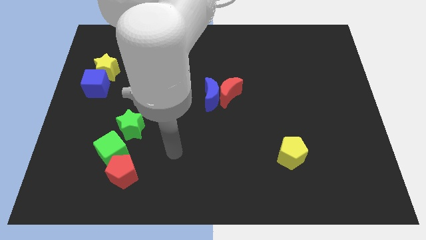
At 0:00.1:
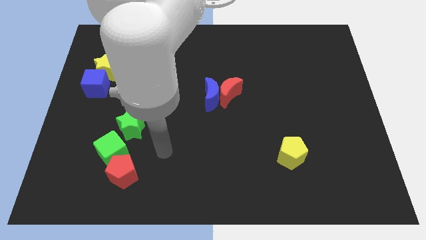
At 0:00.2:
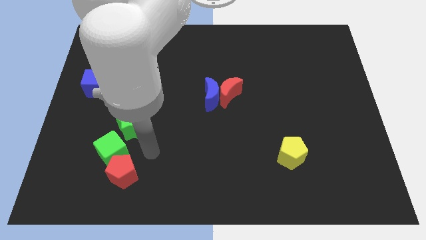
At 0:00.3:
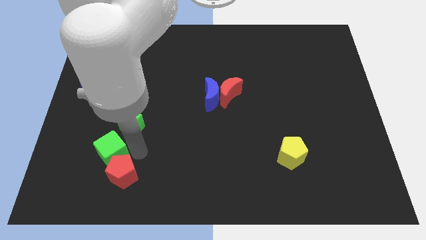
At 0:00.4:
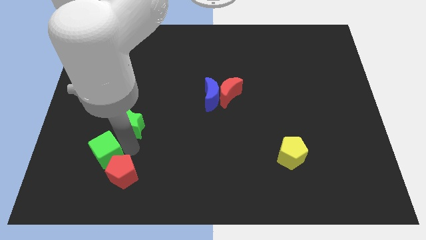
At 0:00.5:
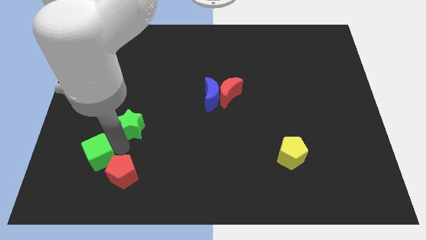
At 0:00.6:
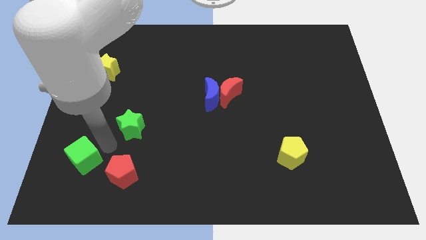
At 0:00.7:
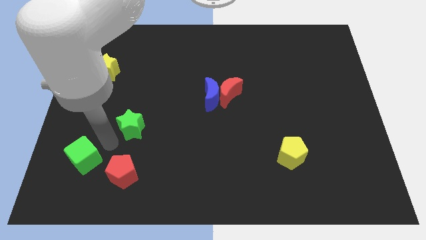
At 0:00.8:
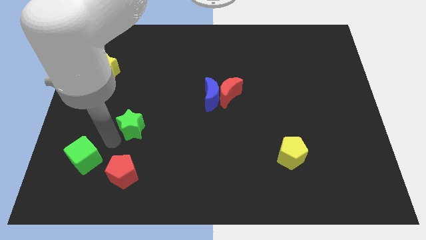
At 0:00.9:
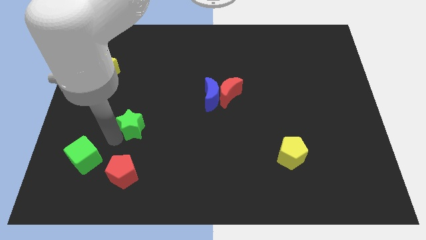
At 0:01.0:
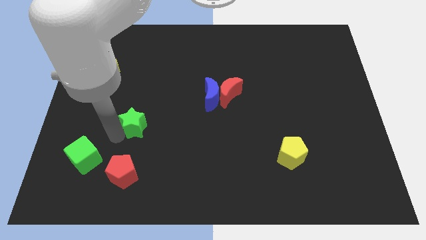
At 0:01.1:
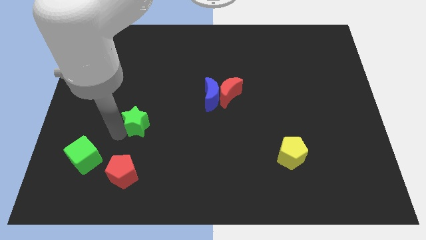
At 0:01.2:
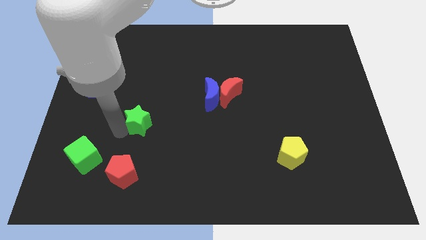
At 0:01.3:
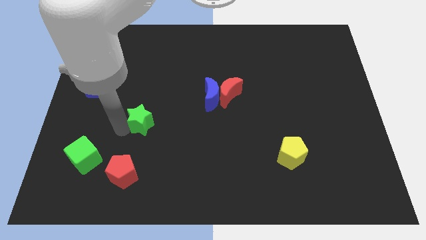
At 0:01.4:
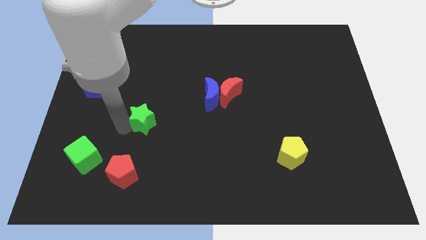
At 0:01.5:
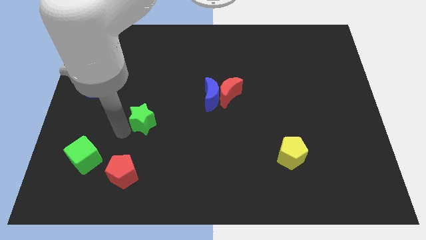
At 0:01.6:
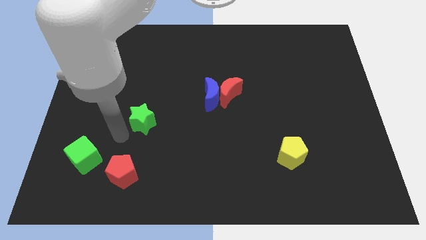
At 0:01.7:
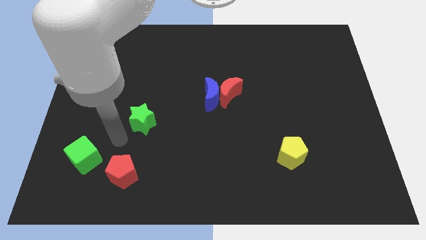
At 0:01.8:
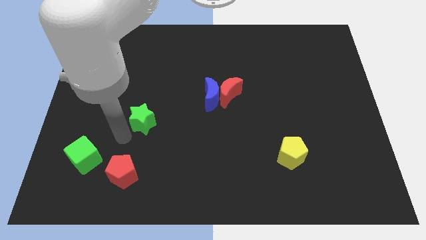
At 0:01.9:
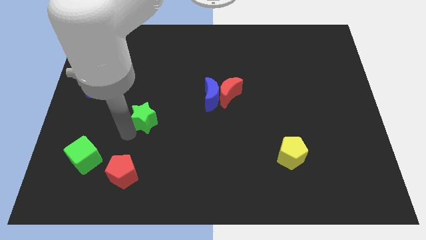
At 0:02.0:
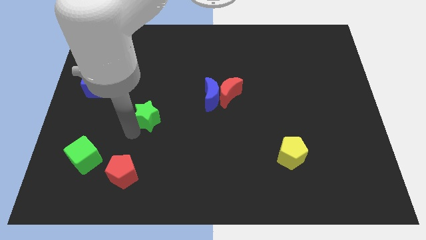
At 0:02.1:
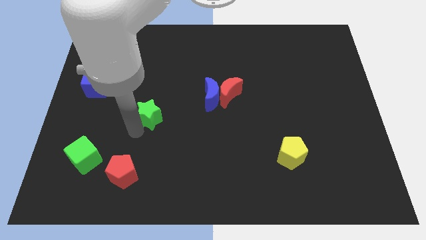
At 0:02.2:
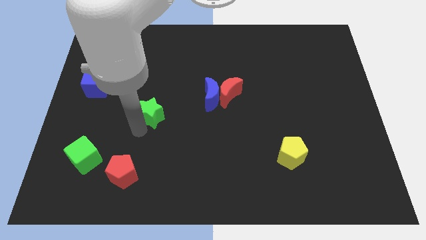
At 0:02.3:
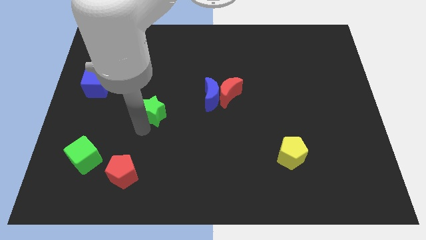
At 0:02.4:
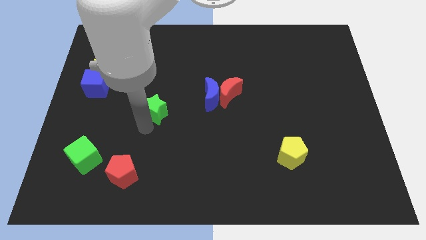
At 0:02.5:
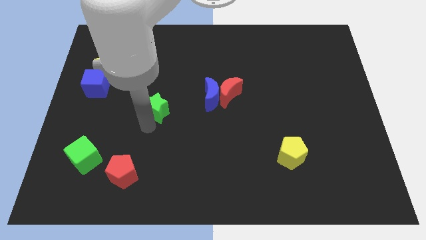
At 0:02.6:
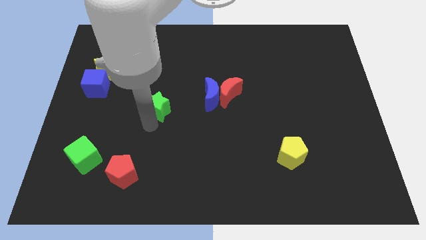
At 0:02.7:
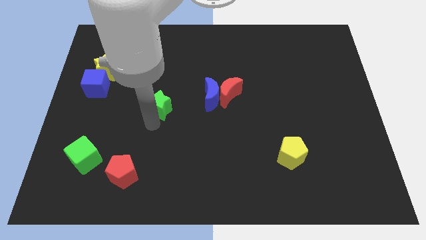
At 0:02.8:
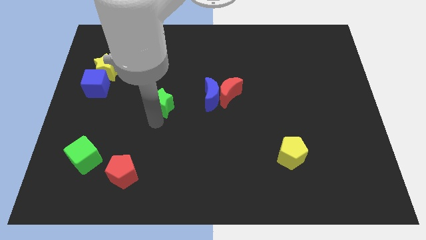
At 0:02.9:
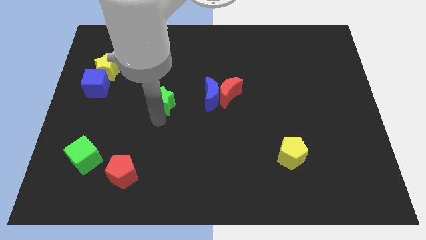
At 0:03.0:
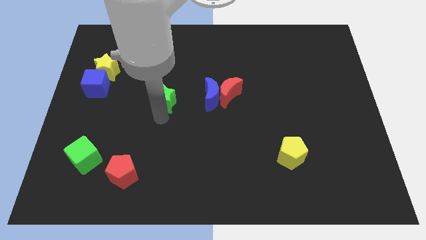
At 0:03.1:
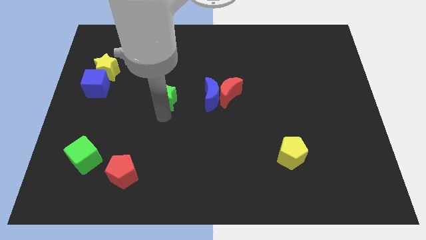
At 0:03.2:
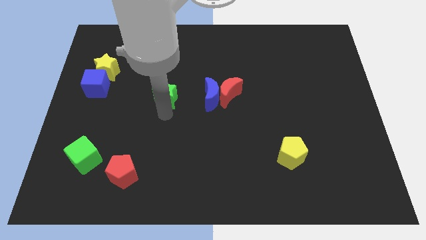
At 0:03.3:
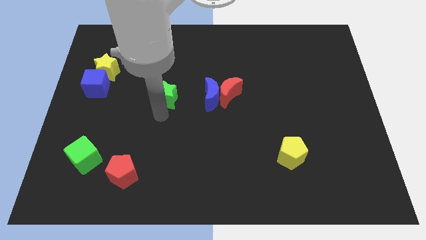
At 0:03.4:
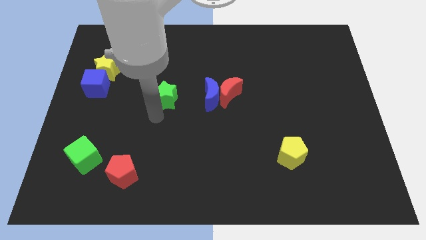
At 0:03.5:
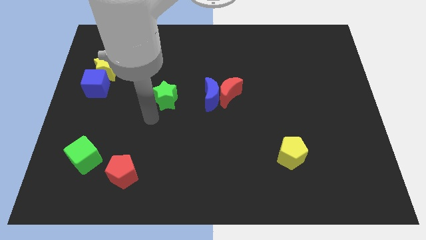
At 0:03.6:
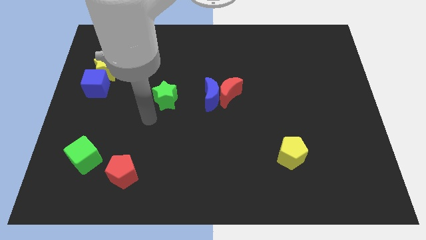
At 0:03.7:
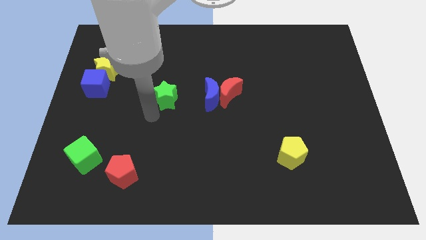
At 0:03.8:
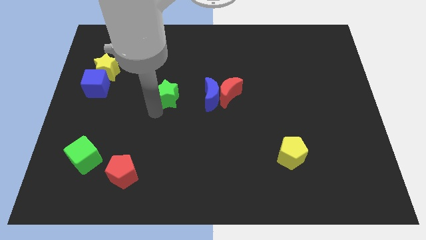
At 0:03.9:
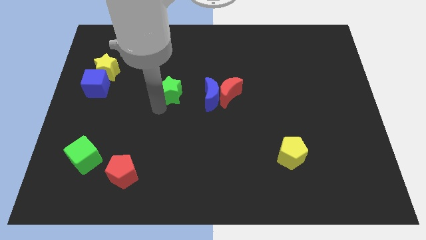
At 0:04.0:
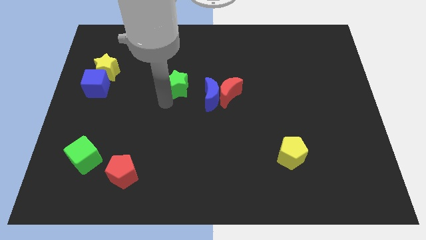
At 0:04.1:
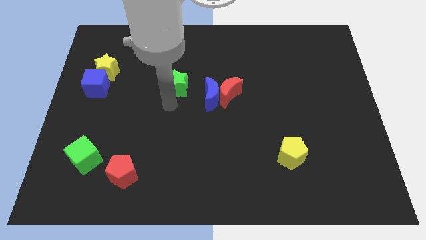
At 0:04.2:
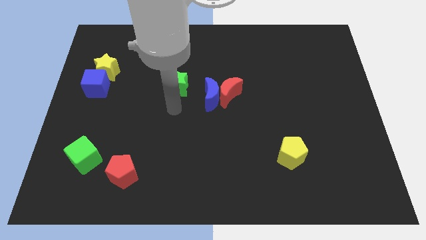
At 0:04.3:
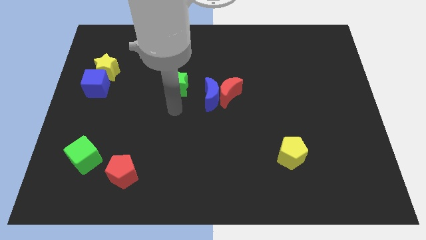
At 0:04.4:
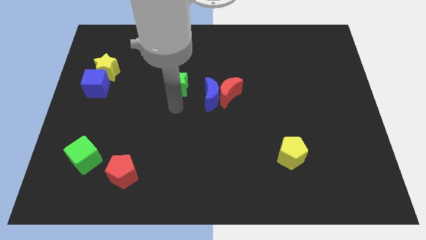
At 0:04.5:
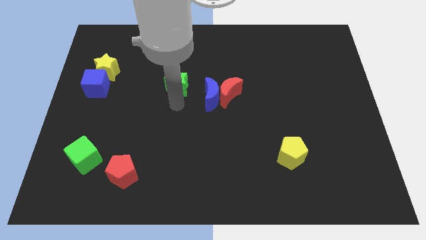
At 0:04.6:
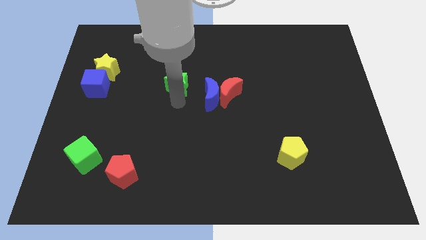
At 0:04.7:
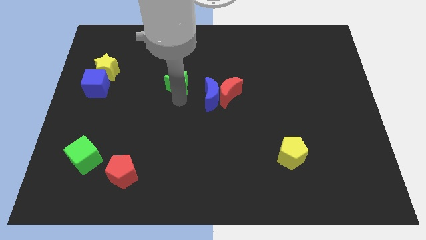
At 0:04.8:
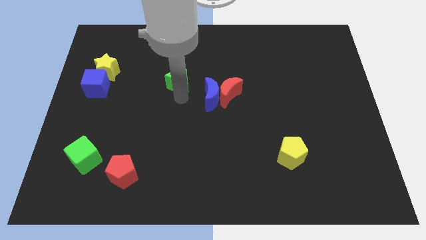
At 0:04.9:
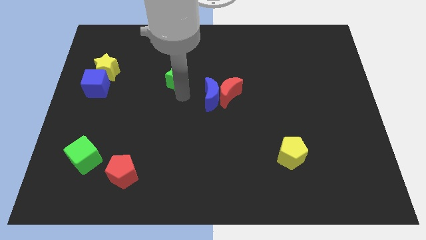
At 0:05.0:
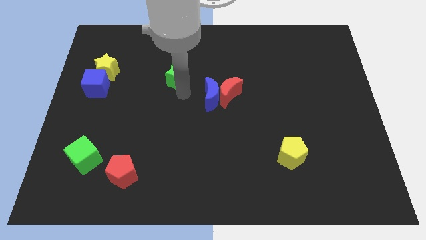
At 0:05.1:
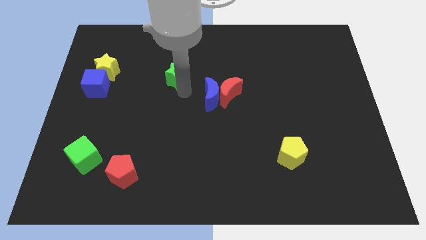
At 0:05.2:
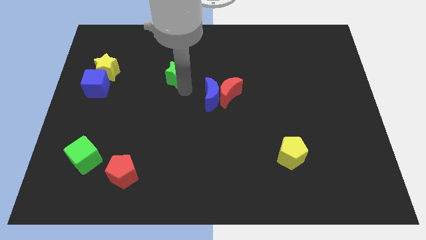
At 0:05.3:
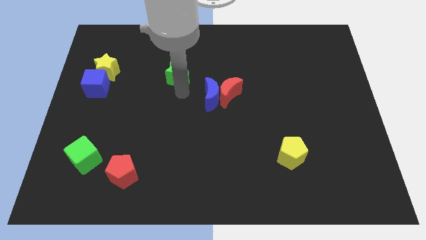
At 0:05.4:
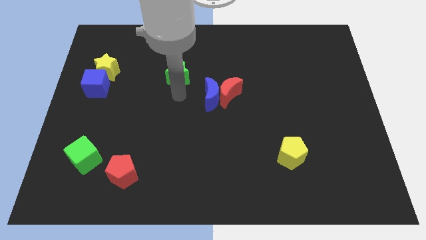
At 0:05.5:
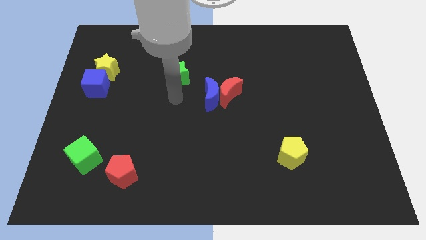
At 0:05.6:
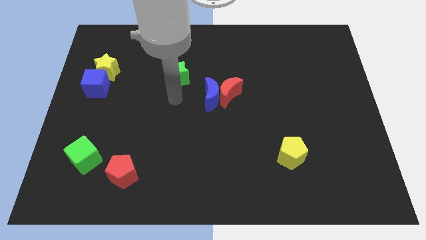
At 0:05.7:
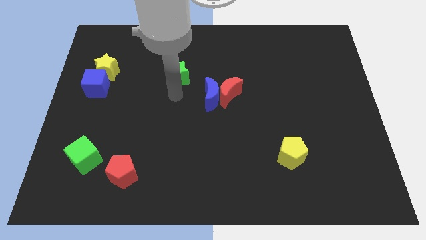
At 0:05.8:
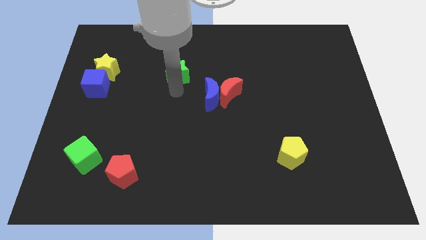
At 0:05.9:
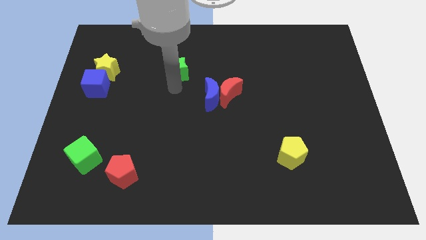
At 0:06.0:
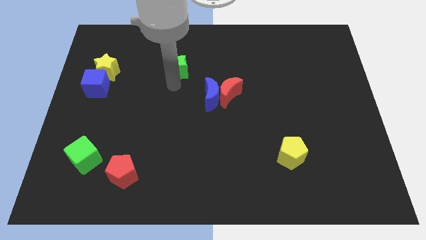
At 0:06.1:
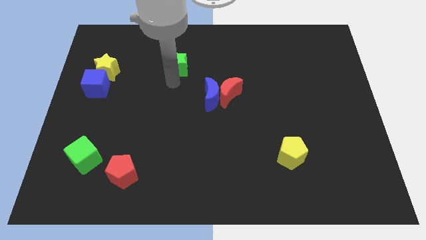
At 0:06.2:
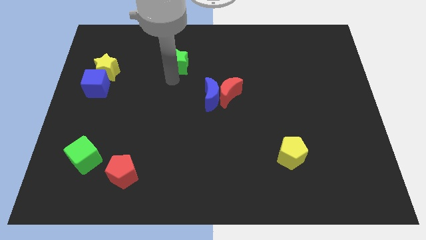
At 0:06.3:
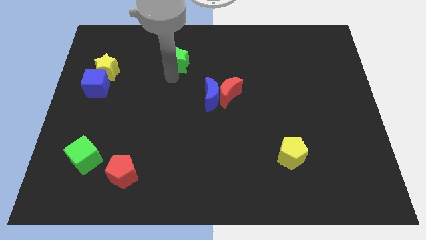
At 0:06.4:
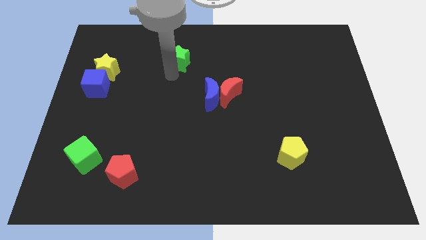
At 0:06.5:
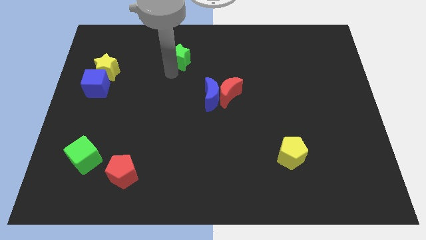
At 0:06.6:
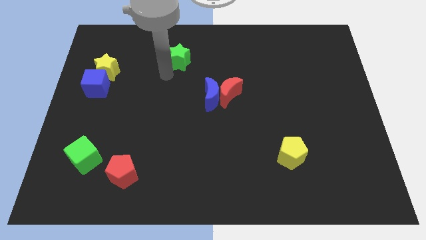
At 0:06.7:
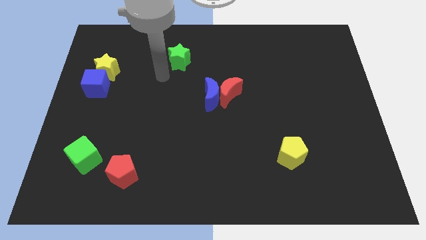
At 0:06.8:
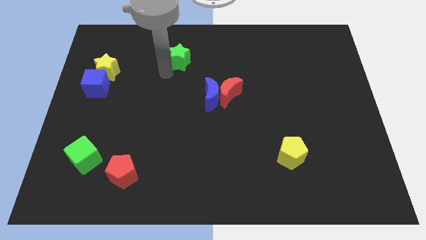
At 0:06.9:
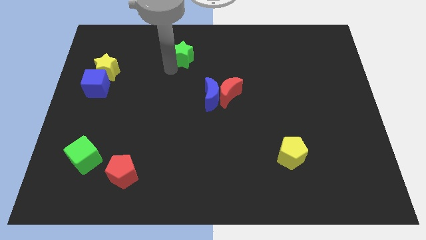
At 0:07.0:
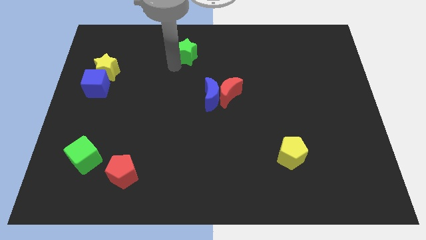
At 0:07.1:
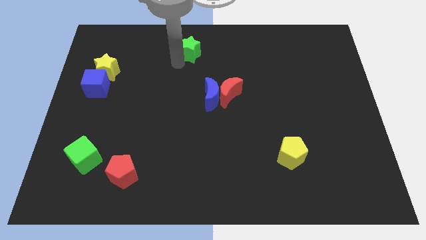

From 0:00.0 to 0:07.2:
push the green star to the top

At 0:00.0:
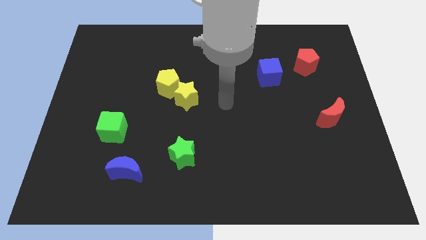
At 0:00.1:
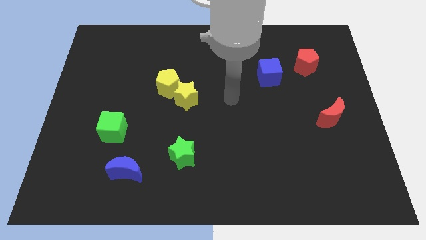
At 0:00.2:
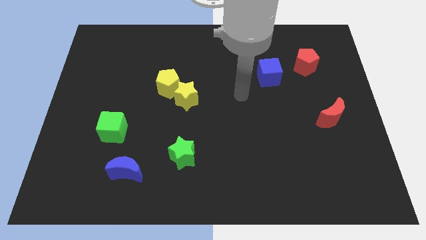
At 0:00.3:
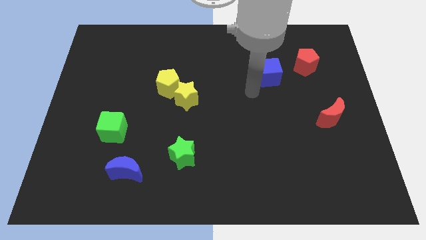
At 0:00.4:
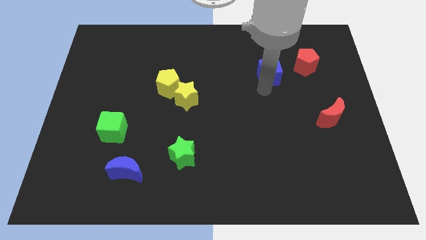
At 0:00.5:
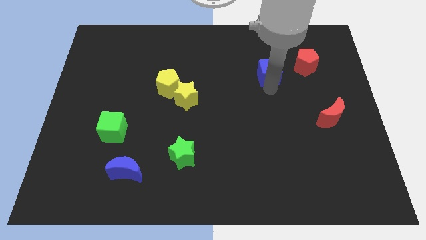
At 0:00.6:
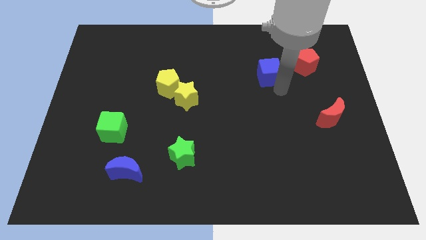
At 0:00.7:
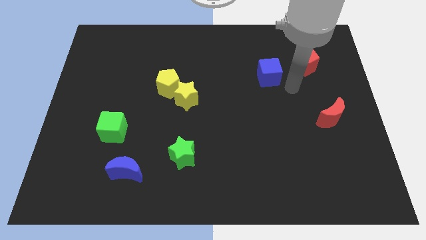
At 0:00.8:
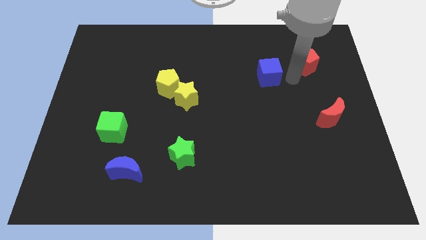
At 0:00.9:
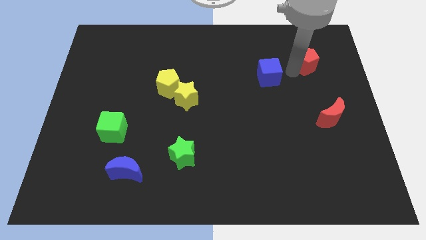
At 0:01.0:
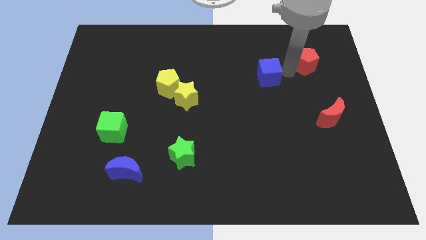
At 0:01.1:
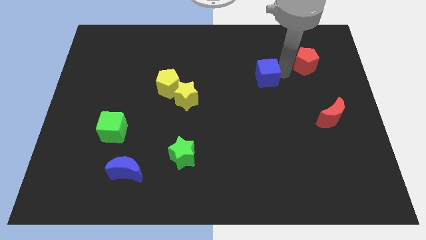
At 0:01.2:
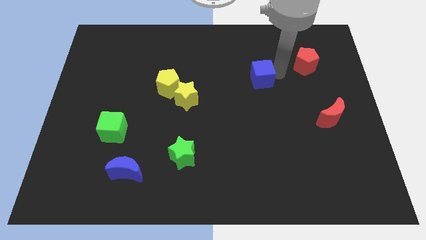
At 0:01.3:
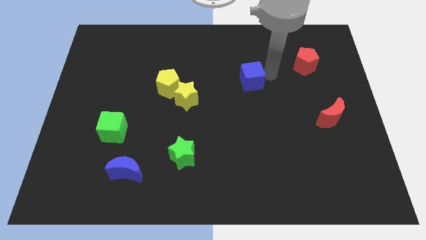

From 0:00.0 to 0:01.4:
push the blue cube to the center of the board
